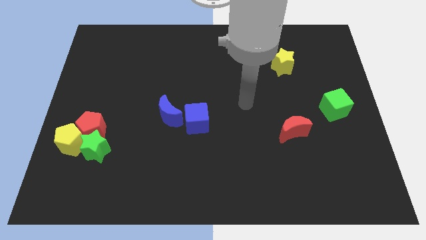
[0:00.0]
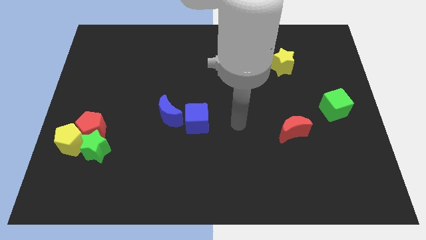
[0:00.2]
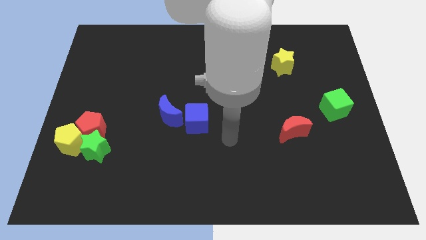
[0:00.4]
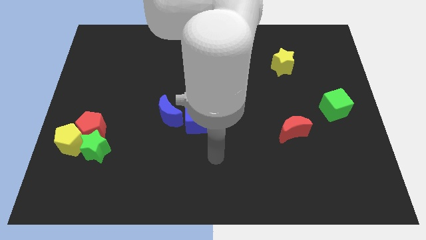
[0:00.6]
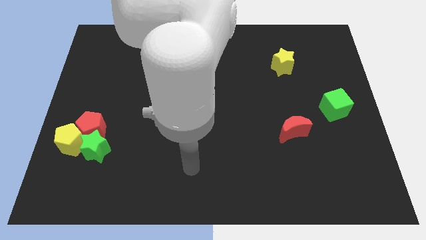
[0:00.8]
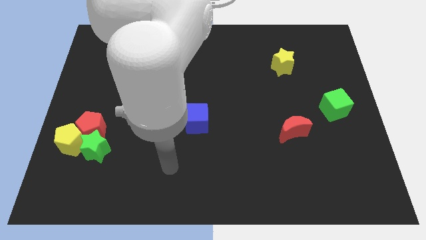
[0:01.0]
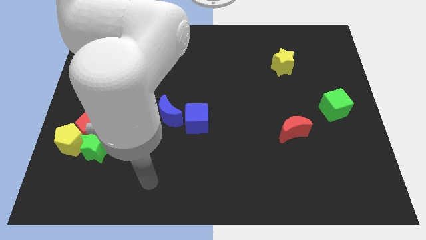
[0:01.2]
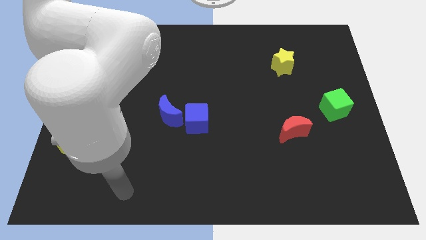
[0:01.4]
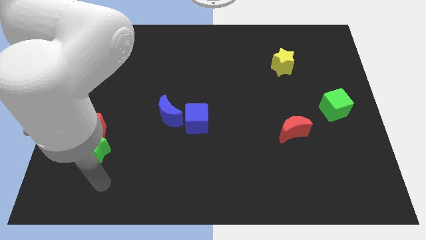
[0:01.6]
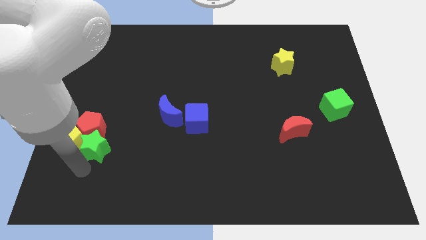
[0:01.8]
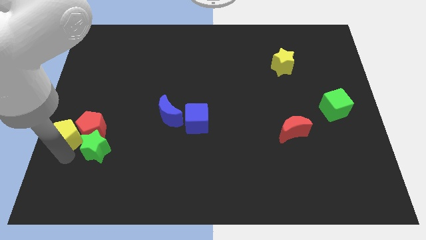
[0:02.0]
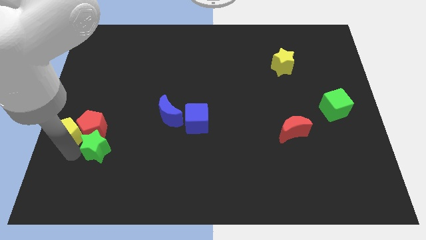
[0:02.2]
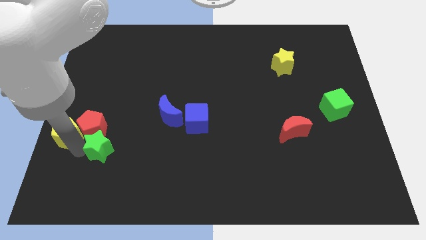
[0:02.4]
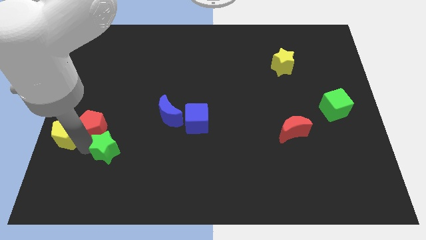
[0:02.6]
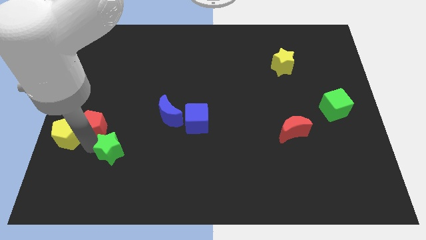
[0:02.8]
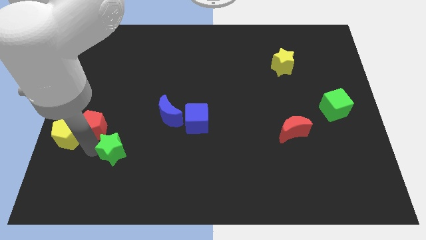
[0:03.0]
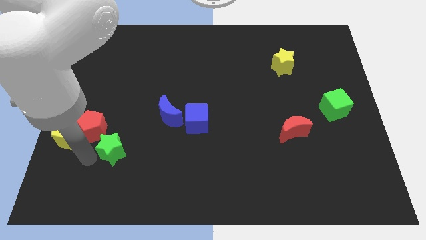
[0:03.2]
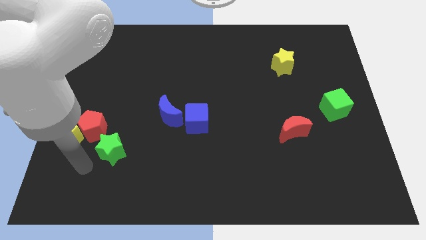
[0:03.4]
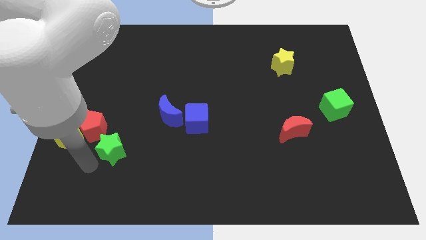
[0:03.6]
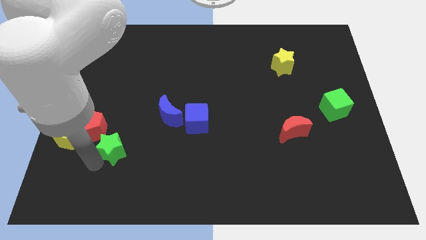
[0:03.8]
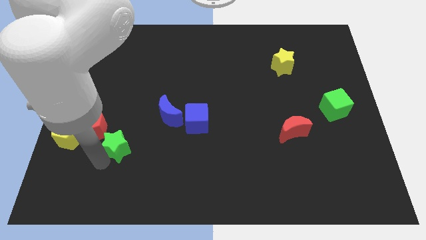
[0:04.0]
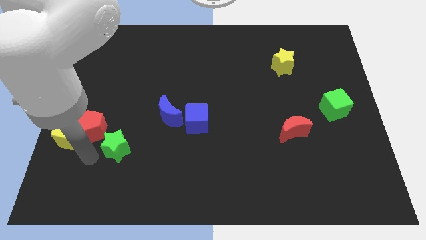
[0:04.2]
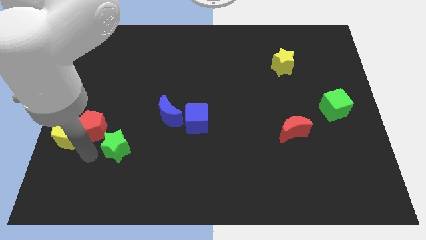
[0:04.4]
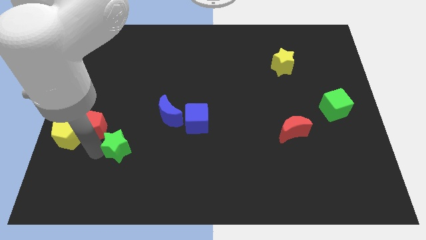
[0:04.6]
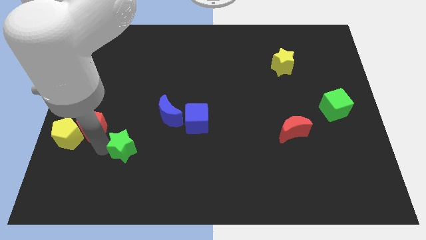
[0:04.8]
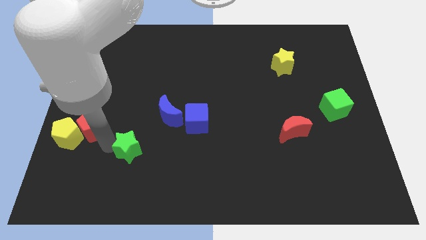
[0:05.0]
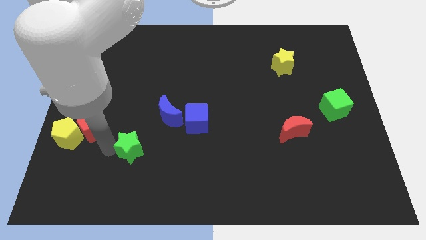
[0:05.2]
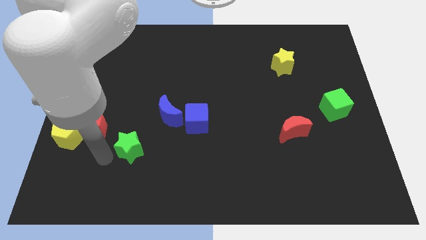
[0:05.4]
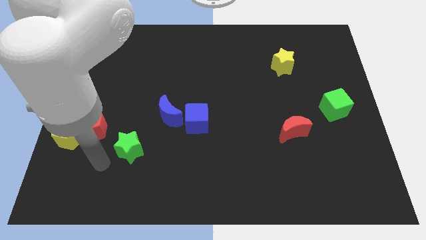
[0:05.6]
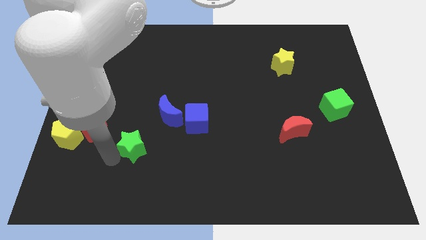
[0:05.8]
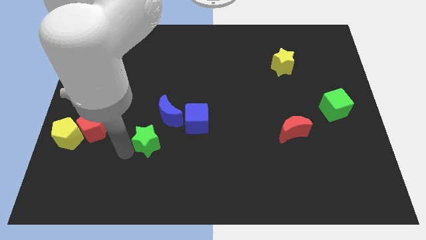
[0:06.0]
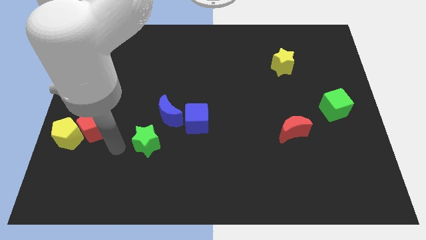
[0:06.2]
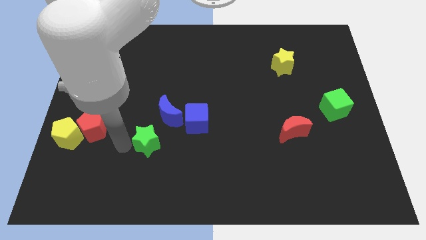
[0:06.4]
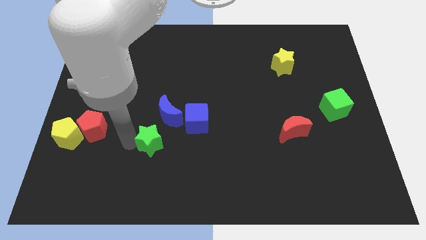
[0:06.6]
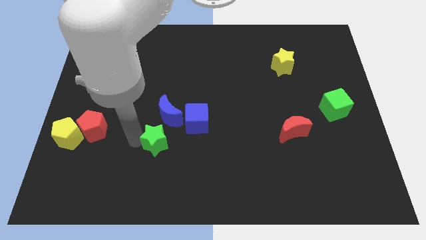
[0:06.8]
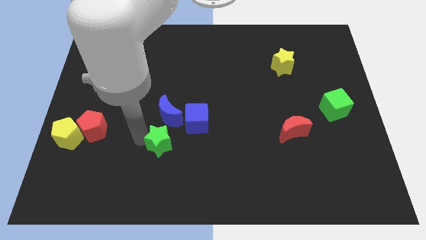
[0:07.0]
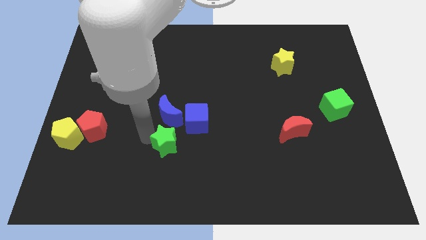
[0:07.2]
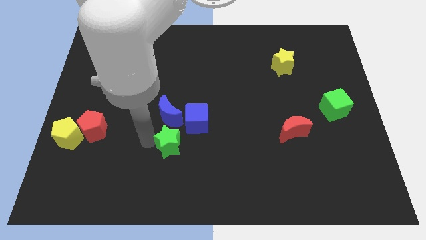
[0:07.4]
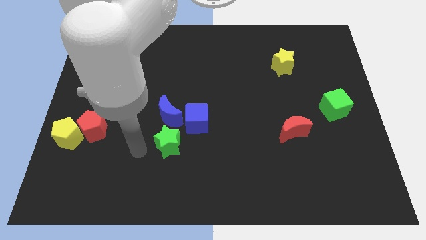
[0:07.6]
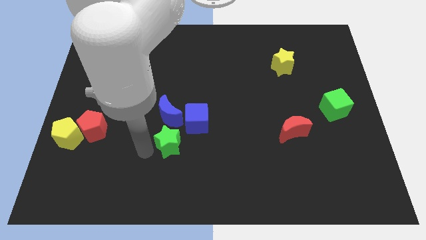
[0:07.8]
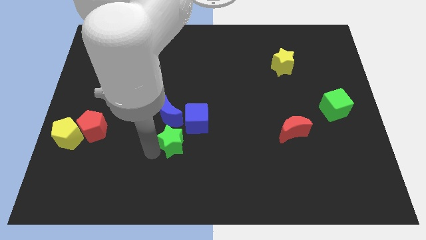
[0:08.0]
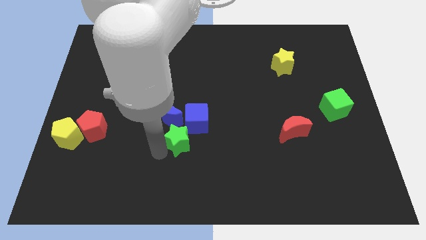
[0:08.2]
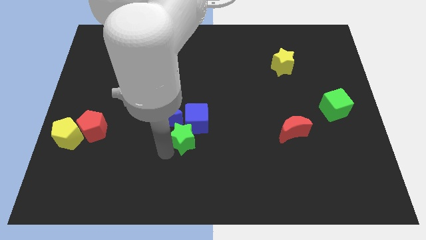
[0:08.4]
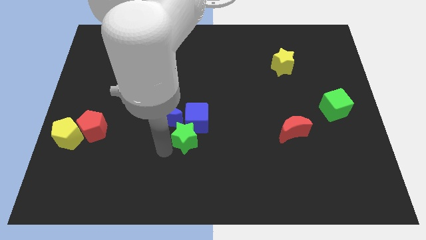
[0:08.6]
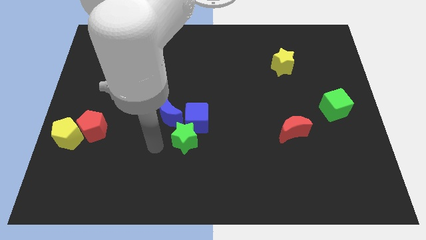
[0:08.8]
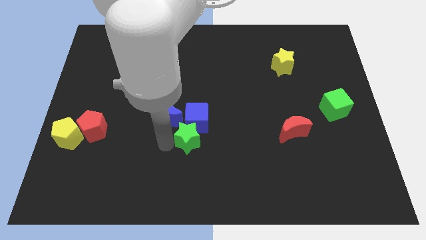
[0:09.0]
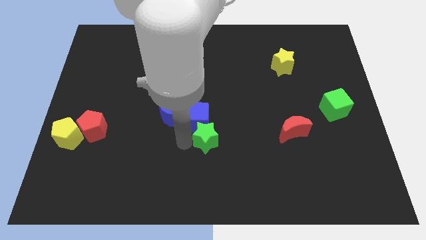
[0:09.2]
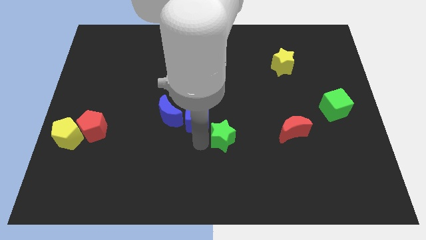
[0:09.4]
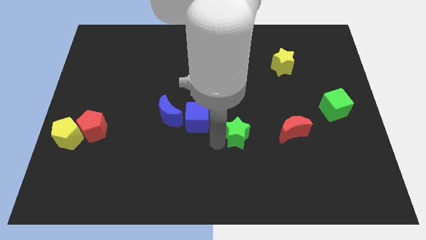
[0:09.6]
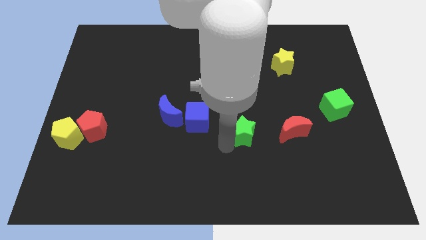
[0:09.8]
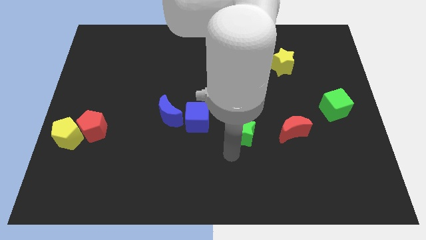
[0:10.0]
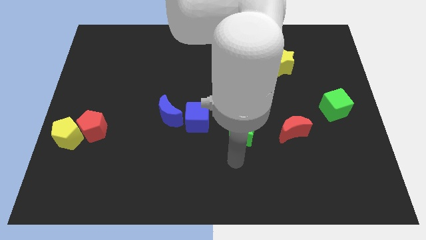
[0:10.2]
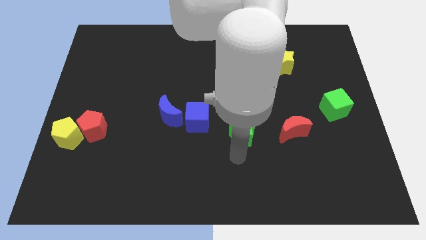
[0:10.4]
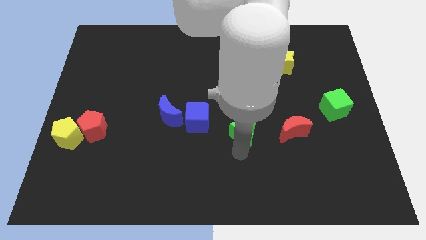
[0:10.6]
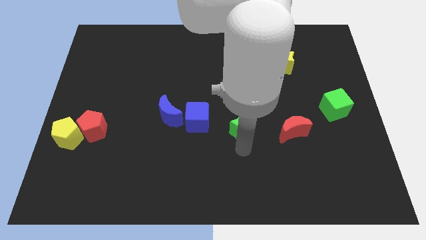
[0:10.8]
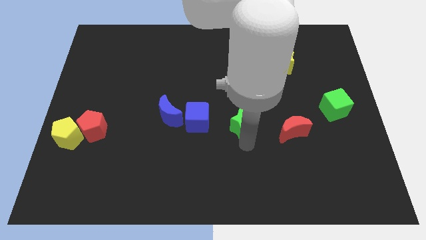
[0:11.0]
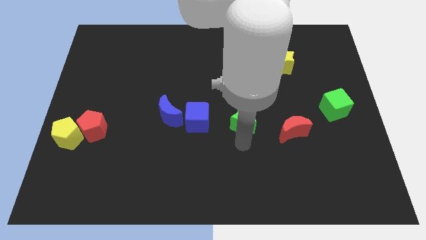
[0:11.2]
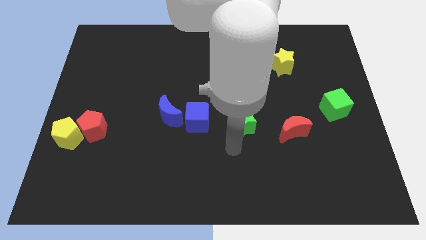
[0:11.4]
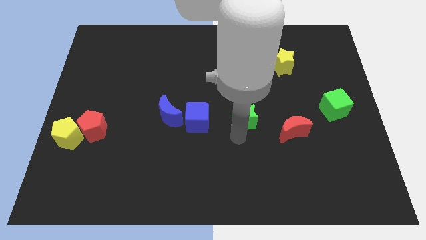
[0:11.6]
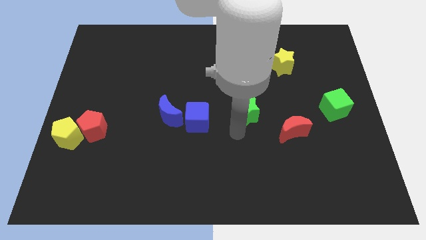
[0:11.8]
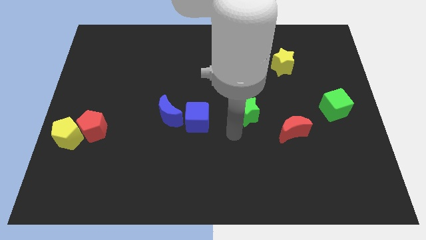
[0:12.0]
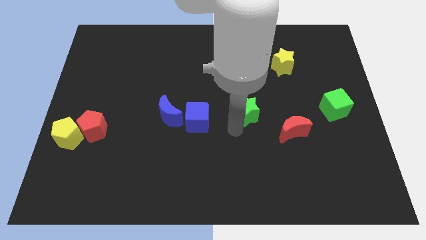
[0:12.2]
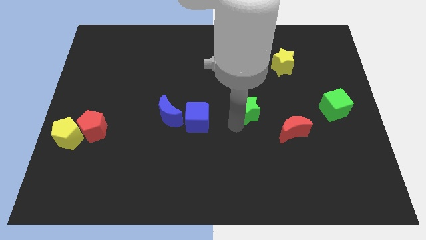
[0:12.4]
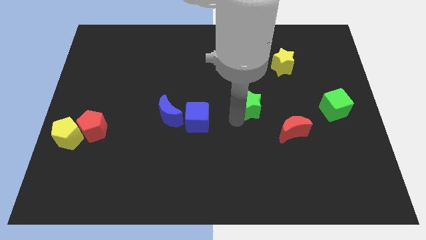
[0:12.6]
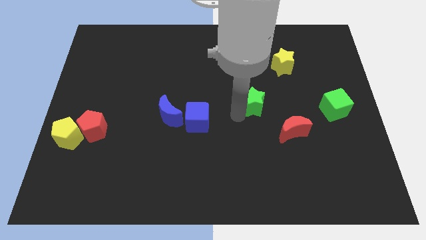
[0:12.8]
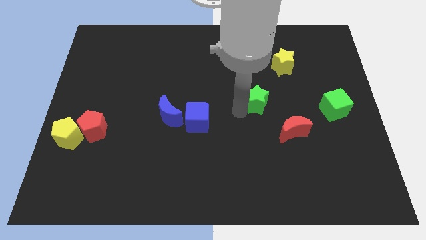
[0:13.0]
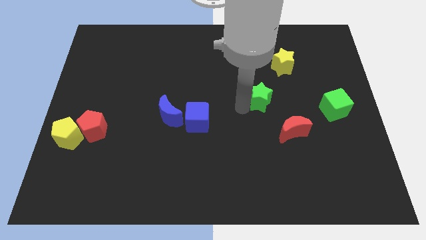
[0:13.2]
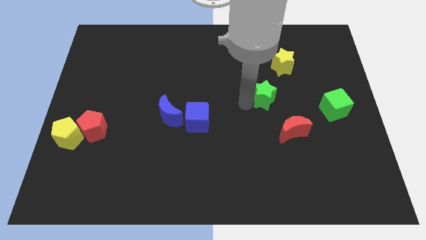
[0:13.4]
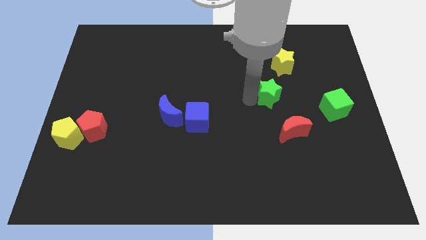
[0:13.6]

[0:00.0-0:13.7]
move the green star to the bottom side of the yellow star
